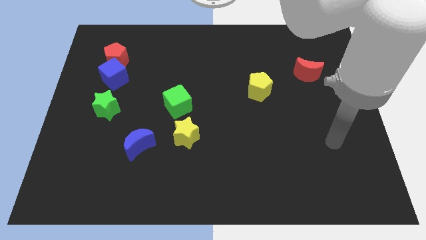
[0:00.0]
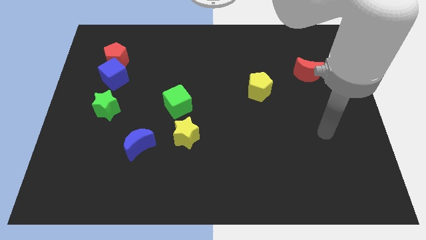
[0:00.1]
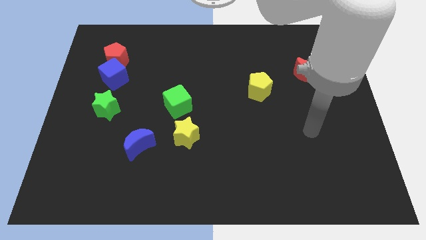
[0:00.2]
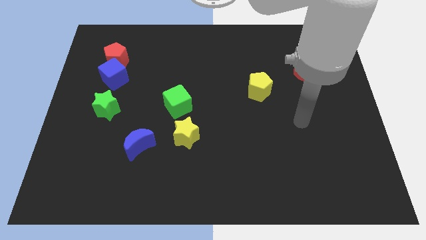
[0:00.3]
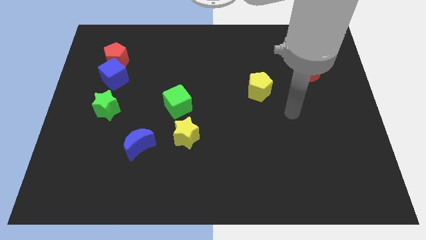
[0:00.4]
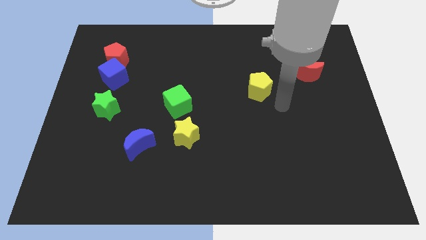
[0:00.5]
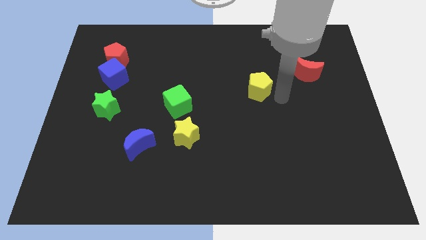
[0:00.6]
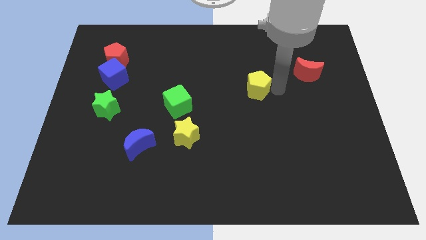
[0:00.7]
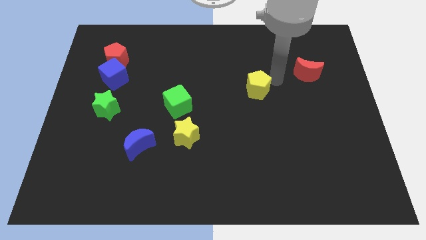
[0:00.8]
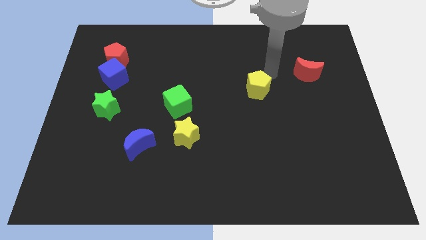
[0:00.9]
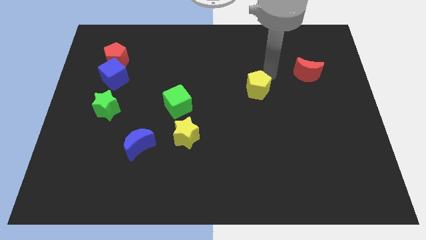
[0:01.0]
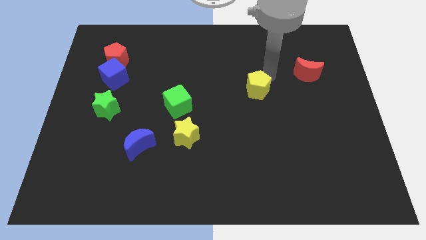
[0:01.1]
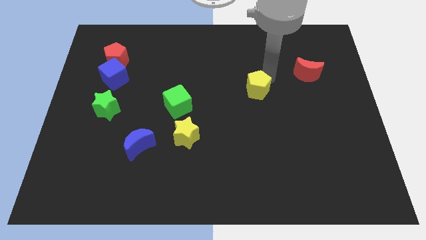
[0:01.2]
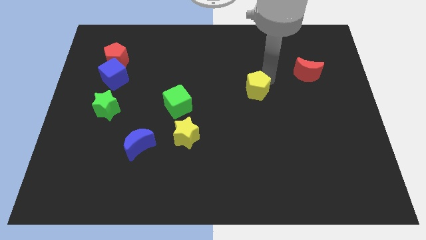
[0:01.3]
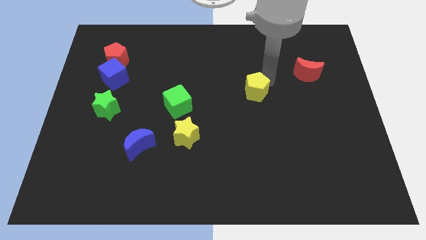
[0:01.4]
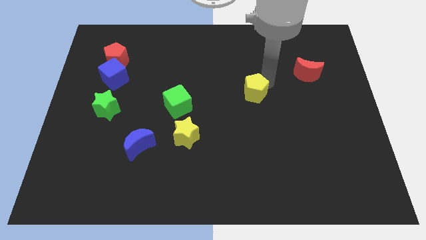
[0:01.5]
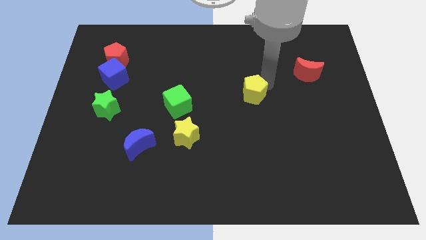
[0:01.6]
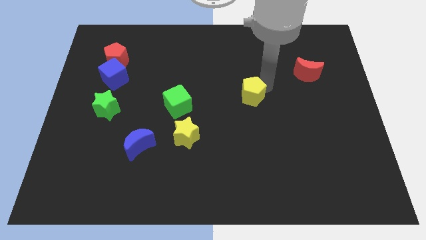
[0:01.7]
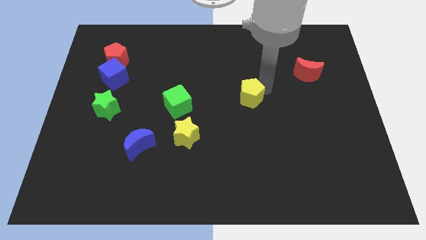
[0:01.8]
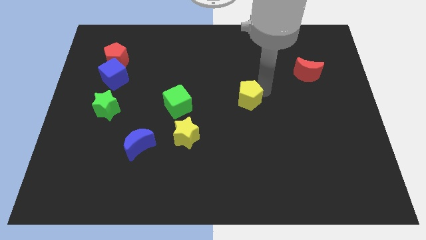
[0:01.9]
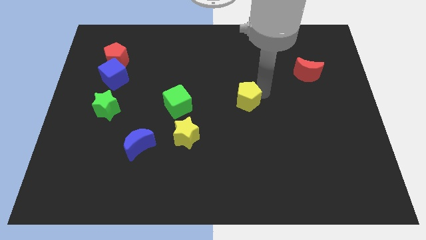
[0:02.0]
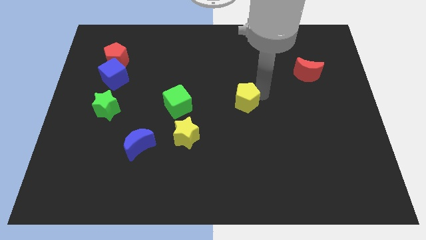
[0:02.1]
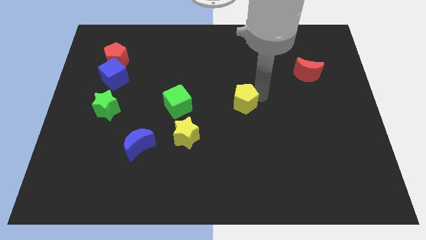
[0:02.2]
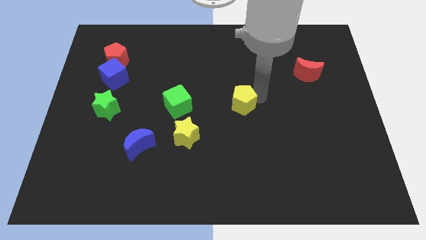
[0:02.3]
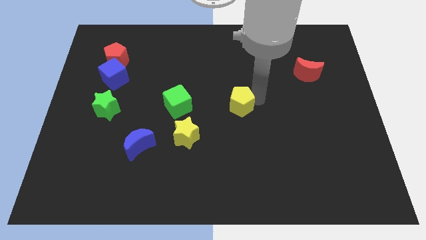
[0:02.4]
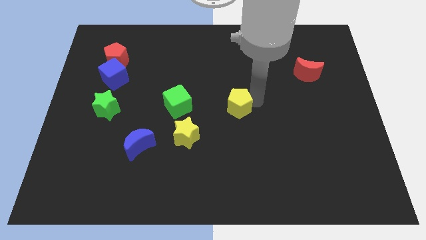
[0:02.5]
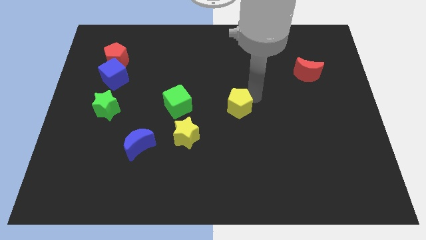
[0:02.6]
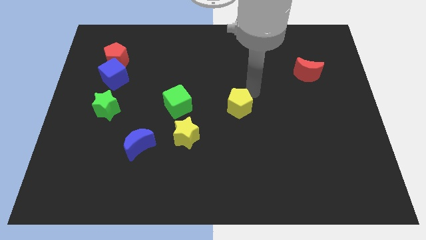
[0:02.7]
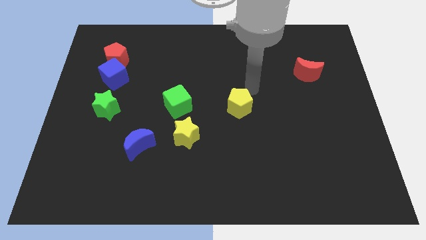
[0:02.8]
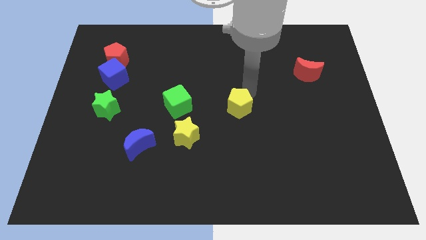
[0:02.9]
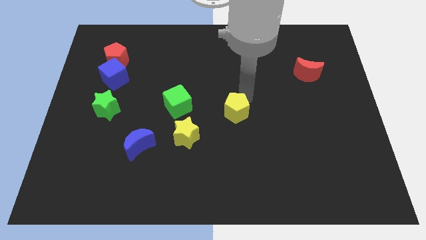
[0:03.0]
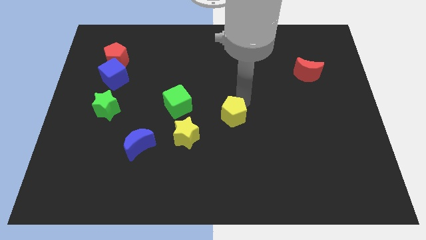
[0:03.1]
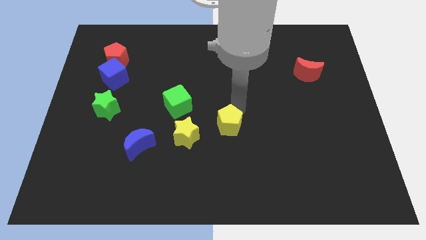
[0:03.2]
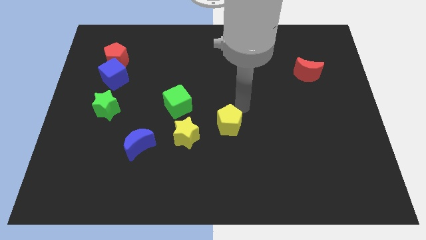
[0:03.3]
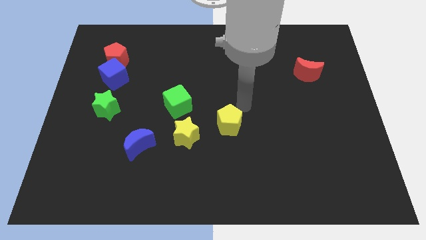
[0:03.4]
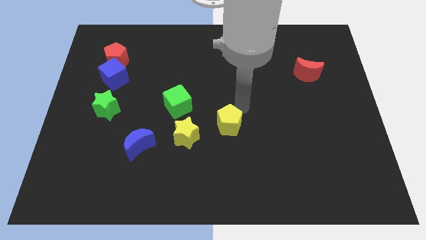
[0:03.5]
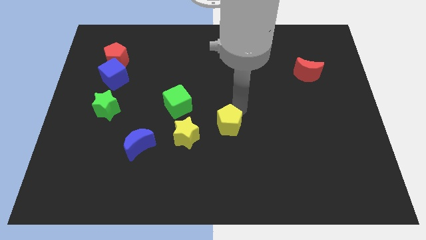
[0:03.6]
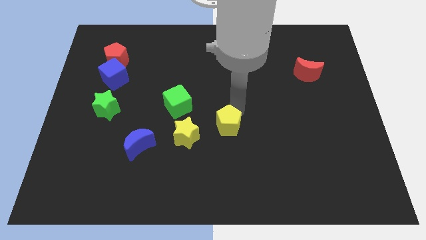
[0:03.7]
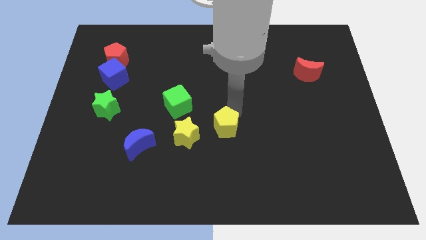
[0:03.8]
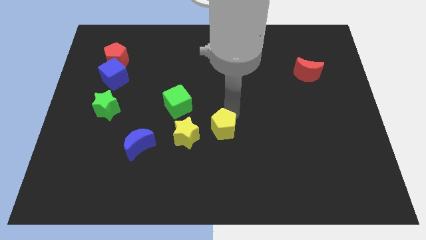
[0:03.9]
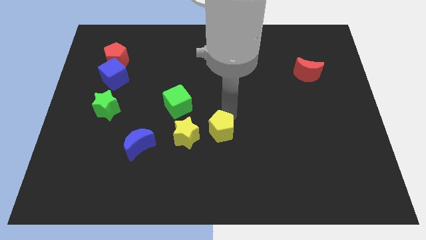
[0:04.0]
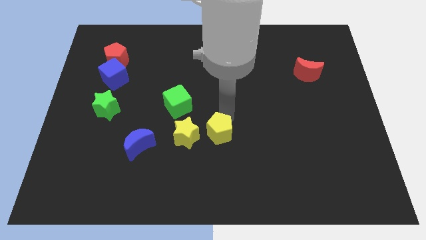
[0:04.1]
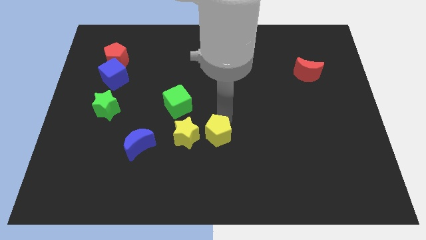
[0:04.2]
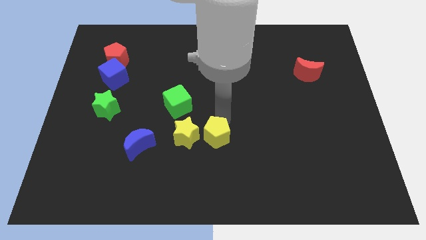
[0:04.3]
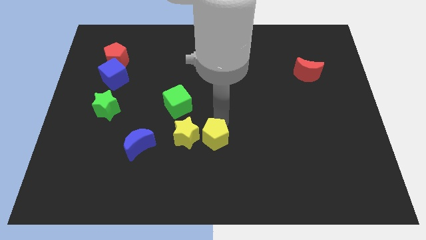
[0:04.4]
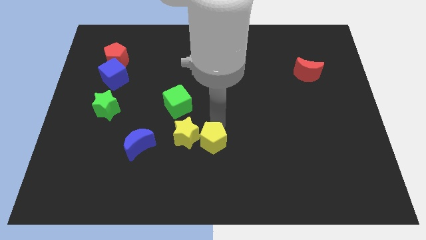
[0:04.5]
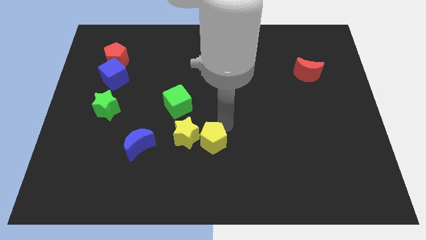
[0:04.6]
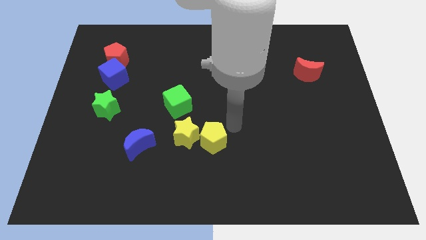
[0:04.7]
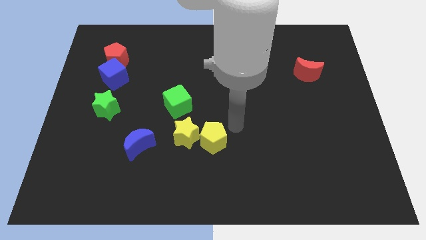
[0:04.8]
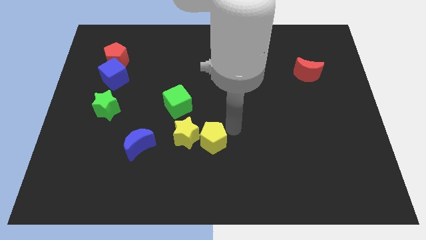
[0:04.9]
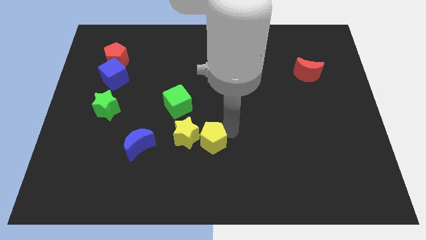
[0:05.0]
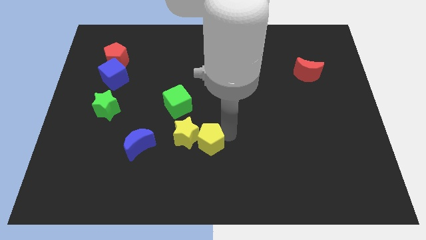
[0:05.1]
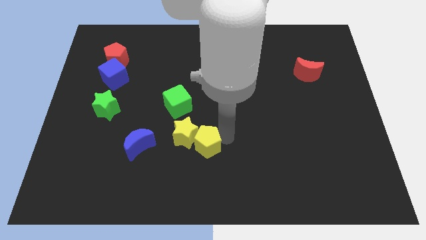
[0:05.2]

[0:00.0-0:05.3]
move the yellow pentagon down and to the left diagonally

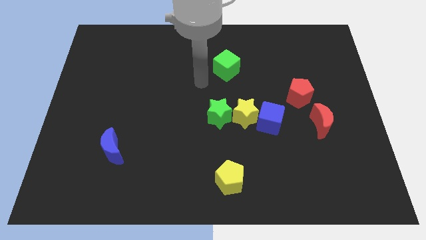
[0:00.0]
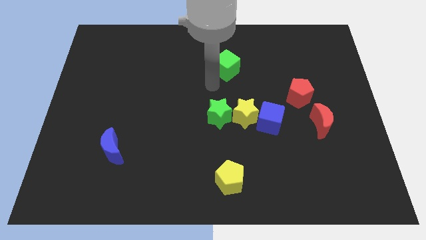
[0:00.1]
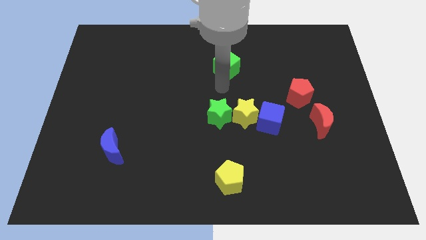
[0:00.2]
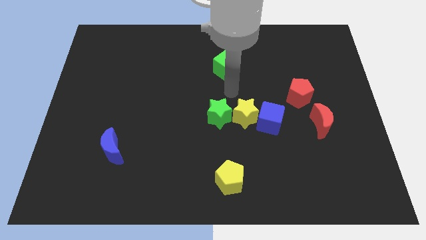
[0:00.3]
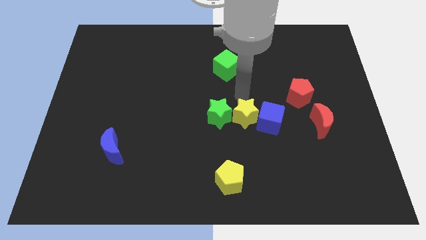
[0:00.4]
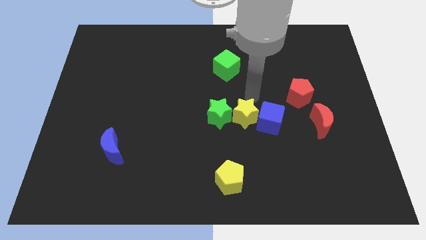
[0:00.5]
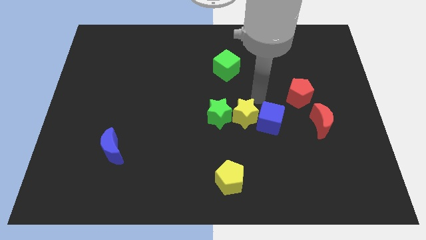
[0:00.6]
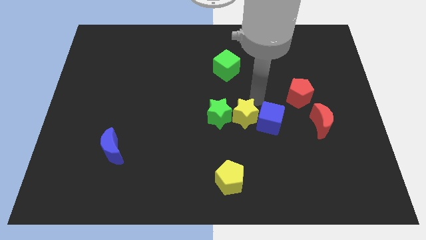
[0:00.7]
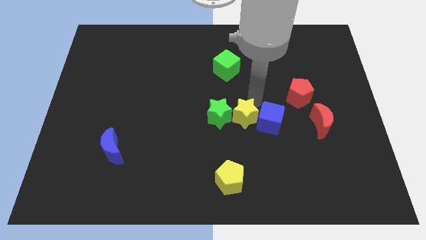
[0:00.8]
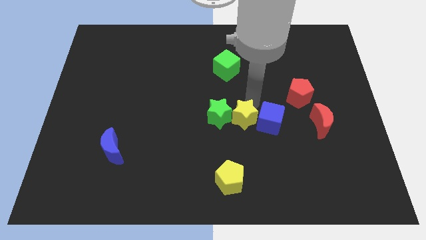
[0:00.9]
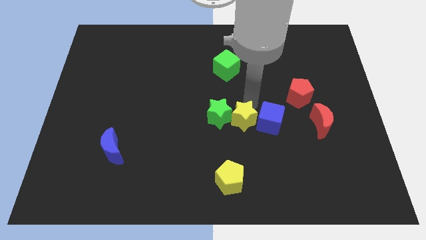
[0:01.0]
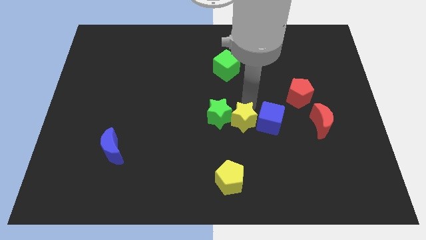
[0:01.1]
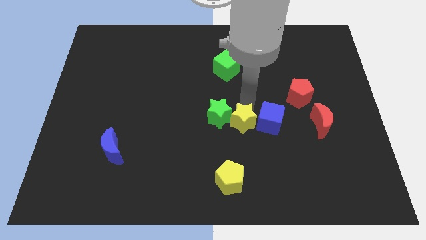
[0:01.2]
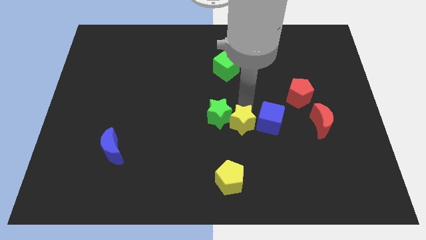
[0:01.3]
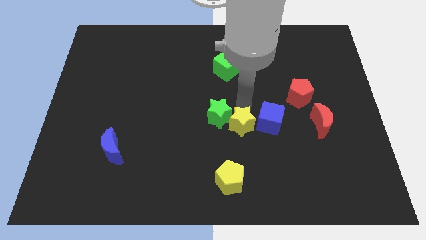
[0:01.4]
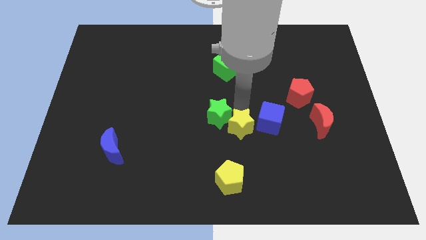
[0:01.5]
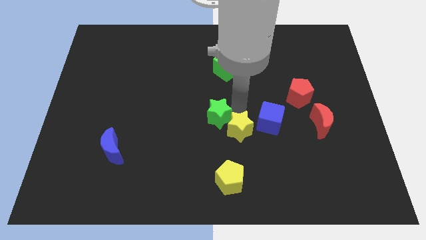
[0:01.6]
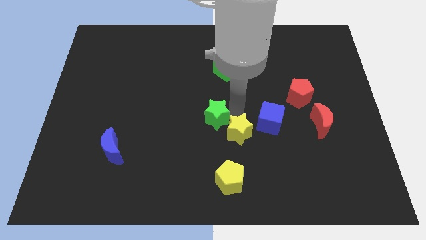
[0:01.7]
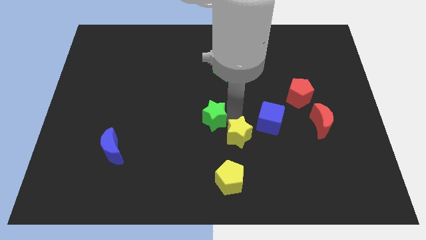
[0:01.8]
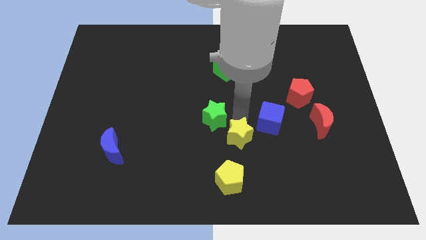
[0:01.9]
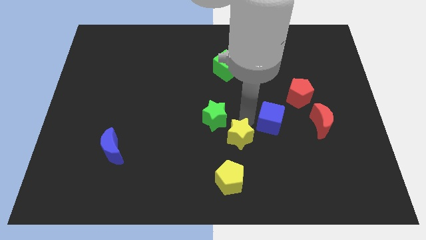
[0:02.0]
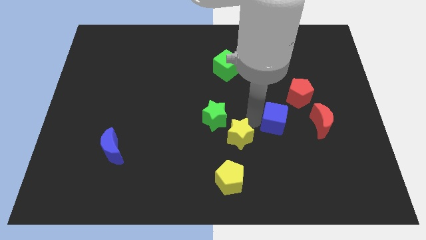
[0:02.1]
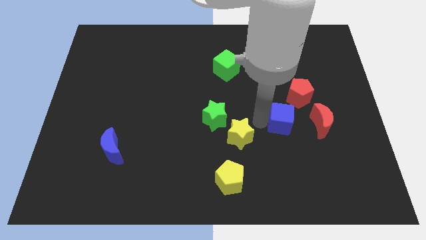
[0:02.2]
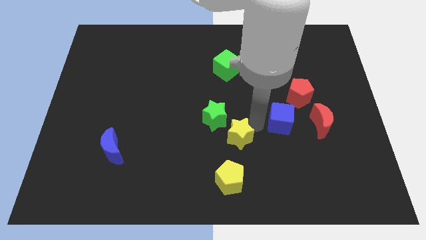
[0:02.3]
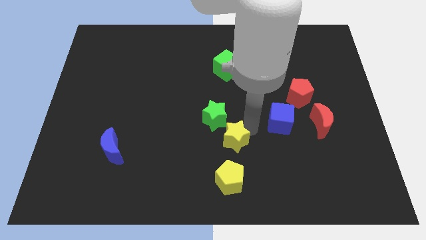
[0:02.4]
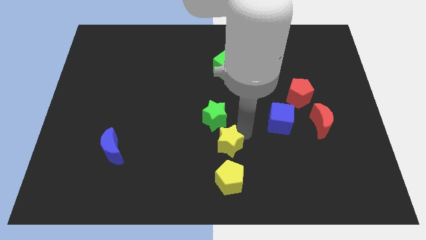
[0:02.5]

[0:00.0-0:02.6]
slide the yellow star a bit down and left diagonally
